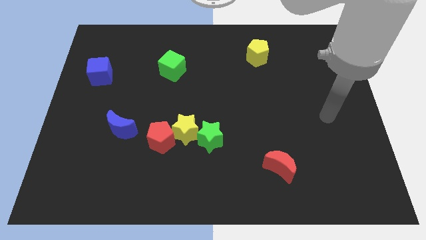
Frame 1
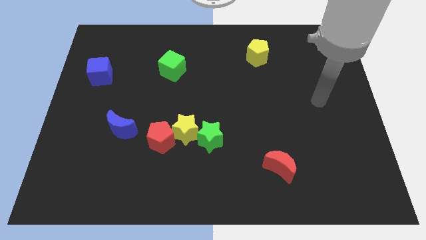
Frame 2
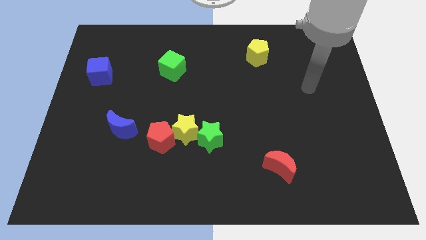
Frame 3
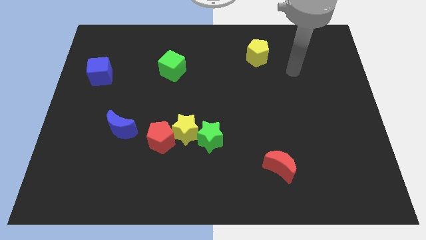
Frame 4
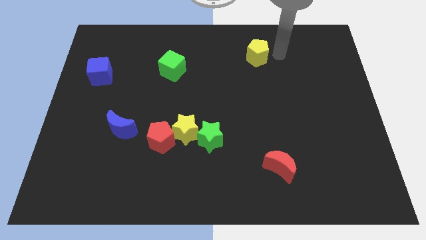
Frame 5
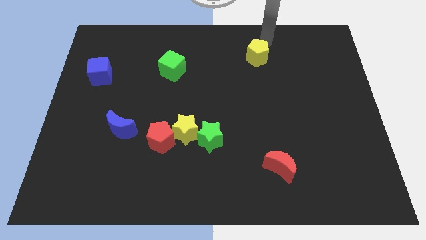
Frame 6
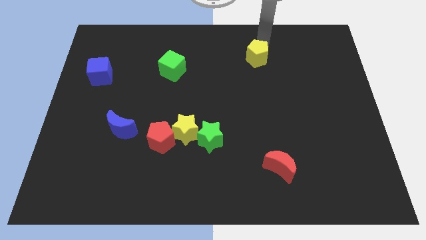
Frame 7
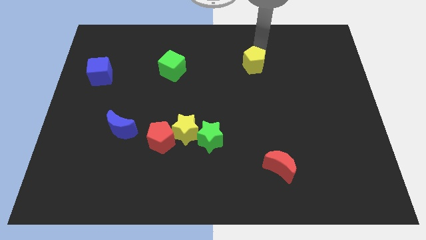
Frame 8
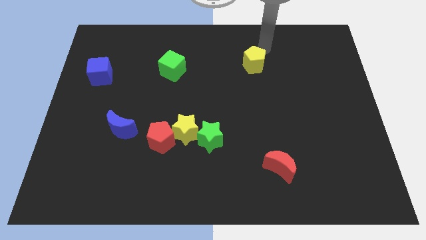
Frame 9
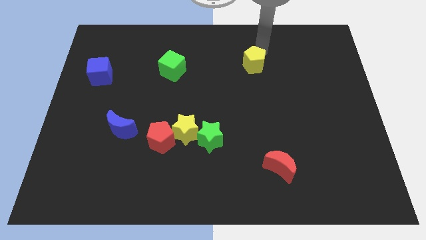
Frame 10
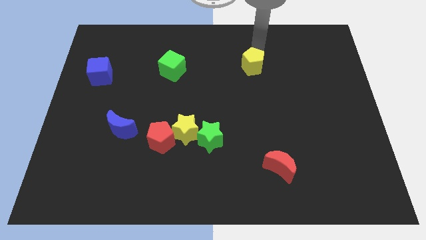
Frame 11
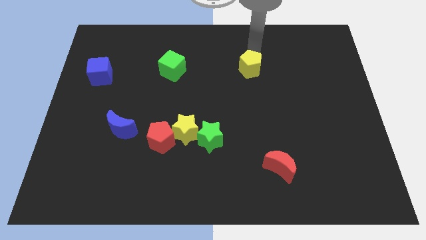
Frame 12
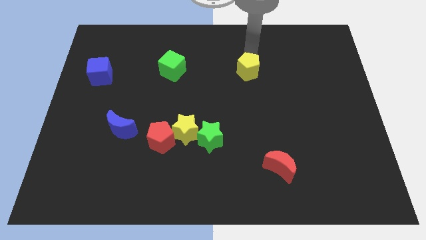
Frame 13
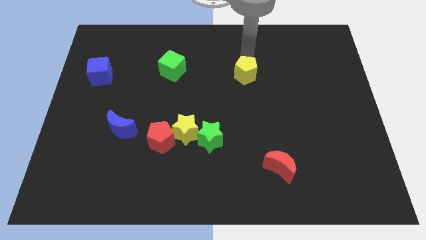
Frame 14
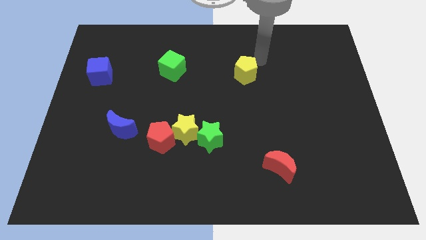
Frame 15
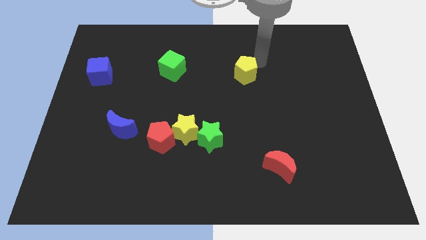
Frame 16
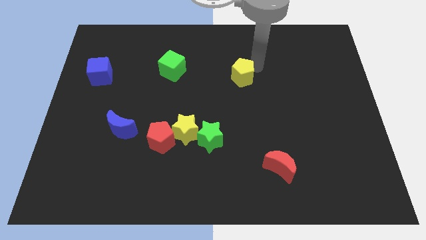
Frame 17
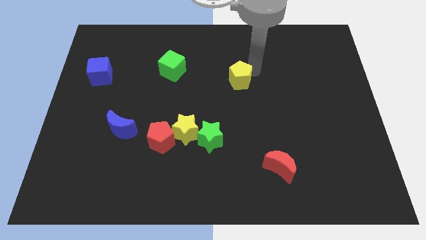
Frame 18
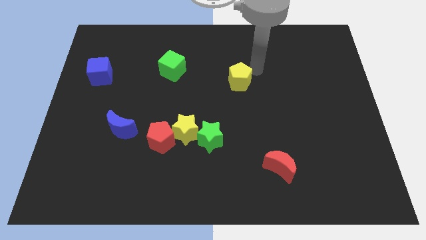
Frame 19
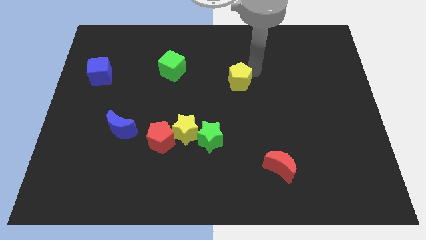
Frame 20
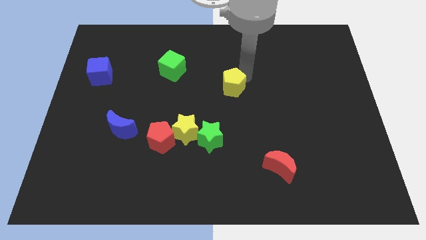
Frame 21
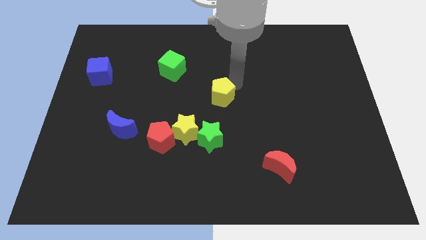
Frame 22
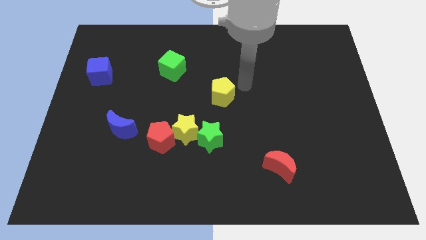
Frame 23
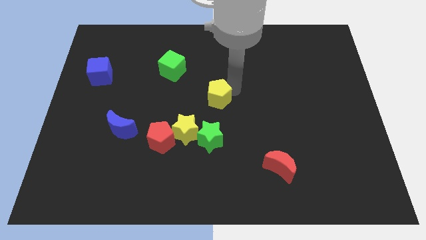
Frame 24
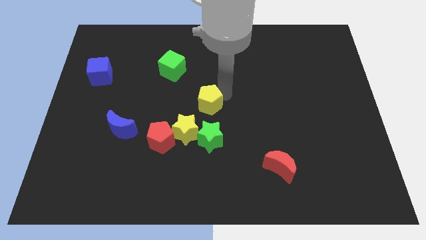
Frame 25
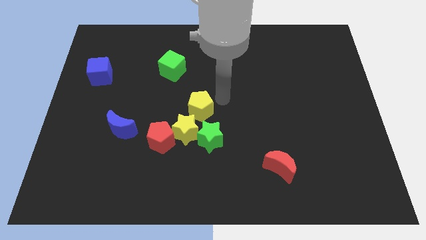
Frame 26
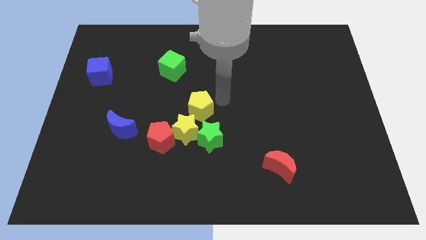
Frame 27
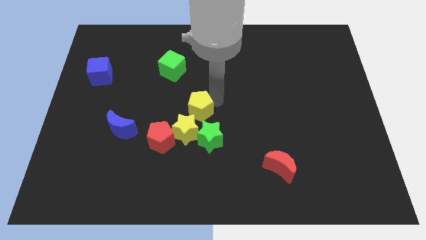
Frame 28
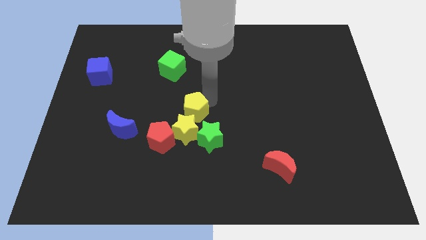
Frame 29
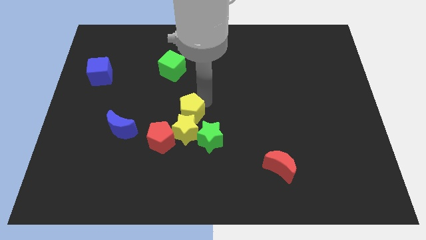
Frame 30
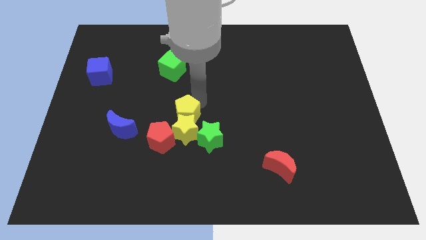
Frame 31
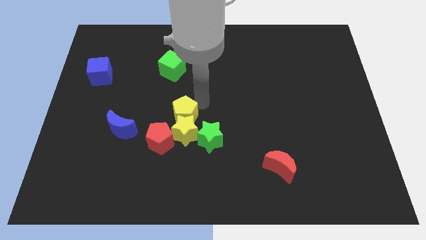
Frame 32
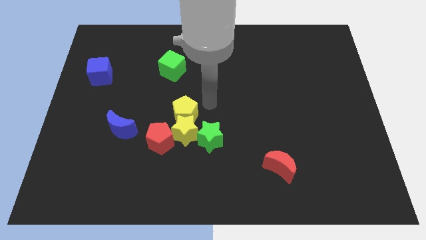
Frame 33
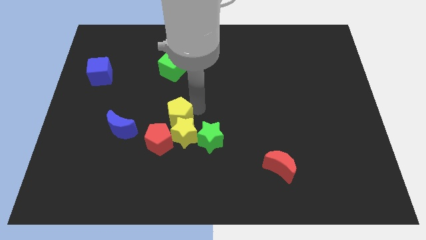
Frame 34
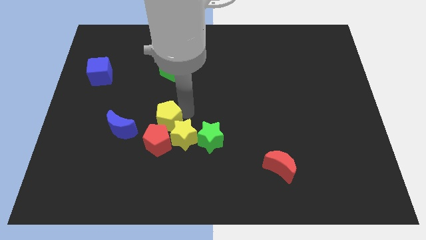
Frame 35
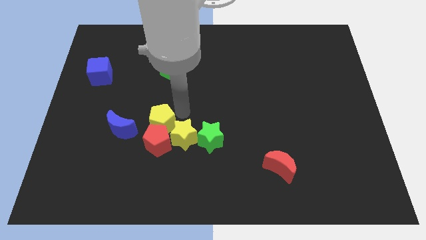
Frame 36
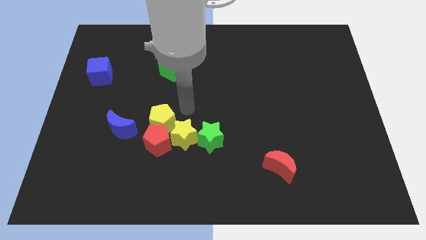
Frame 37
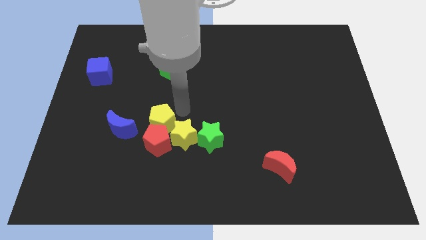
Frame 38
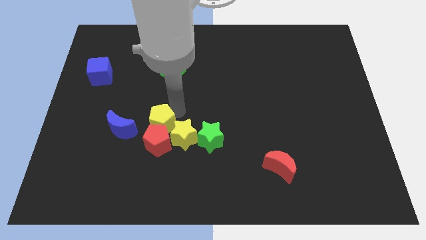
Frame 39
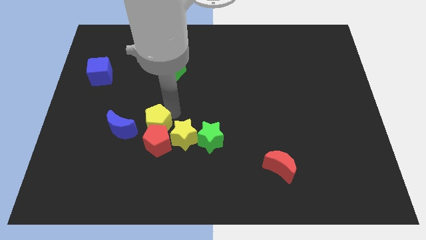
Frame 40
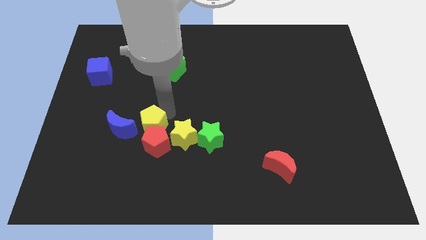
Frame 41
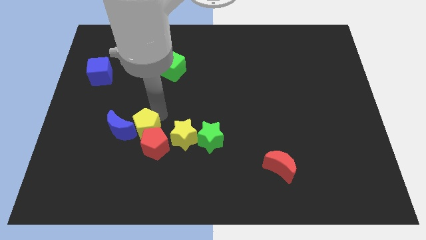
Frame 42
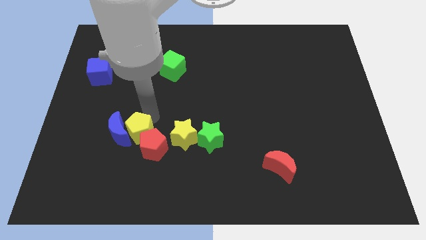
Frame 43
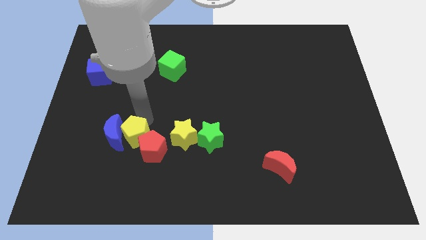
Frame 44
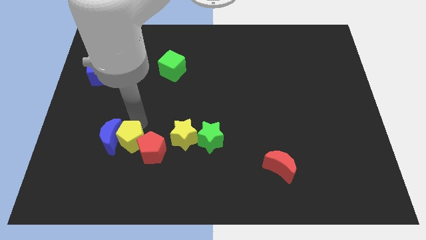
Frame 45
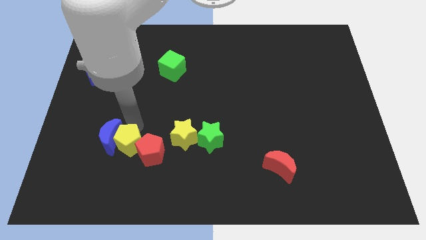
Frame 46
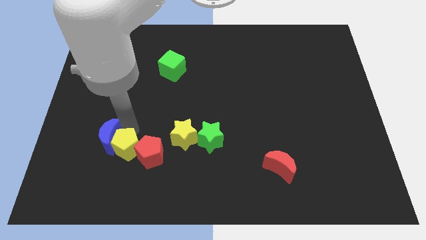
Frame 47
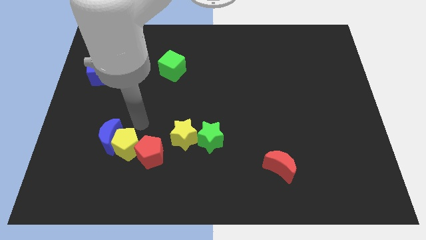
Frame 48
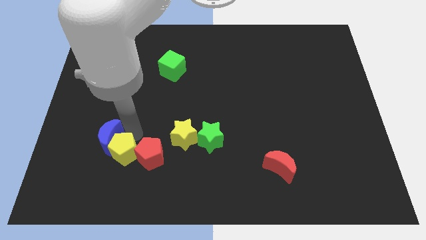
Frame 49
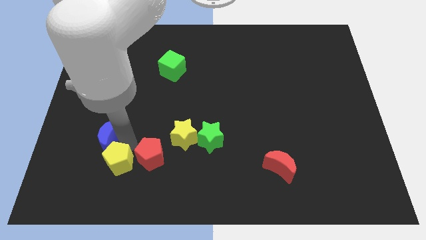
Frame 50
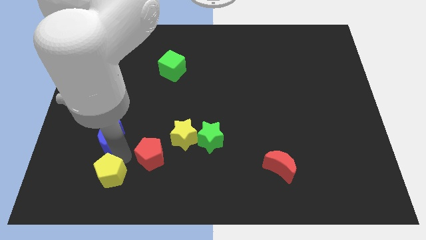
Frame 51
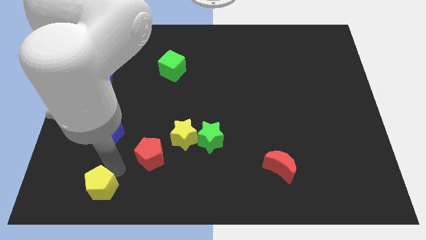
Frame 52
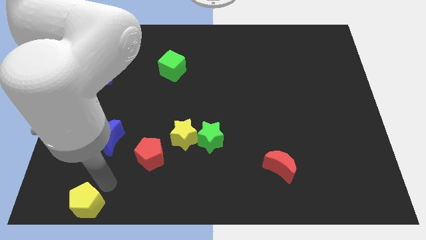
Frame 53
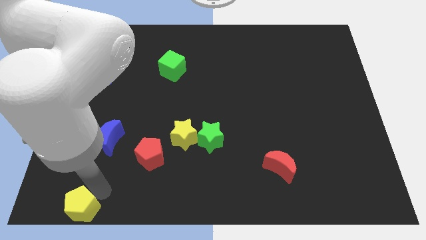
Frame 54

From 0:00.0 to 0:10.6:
slide the yellow pentagon to the bottom left corner

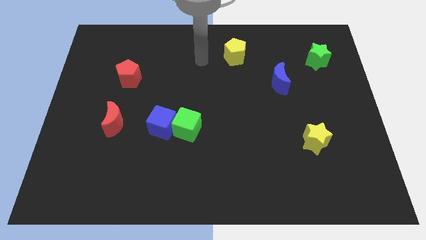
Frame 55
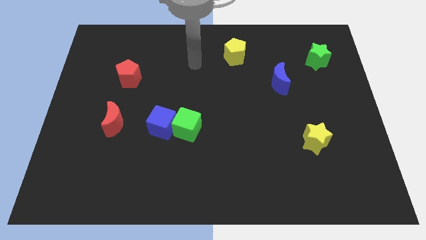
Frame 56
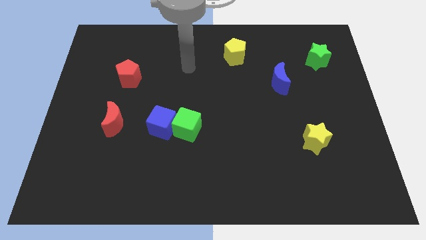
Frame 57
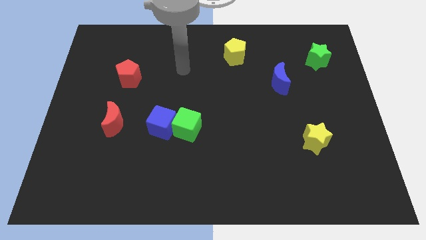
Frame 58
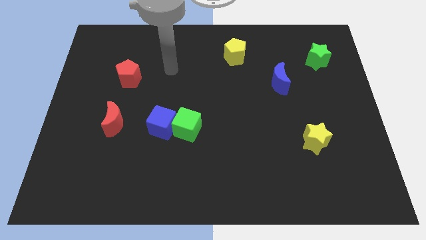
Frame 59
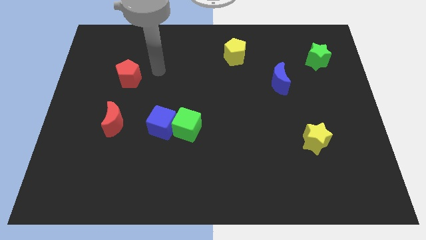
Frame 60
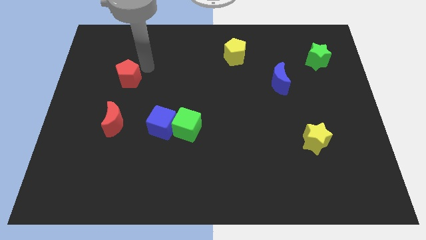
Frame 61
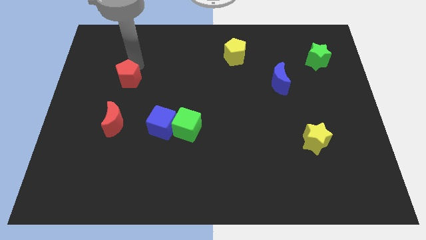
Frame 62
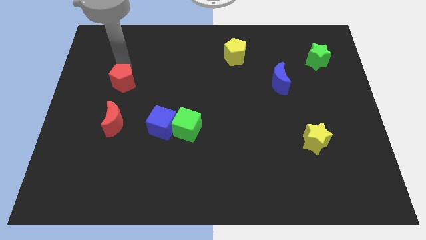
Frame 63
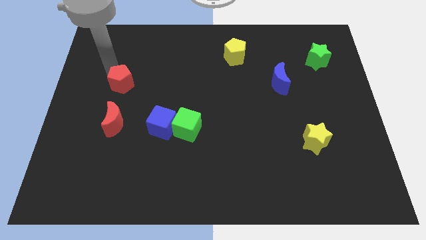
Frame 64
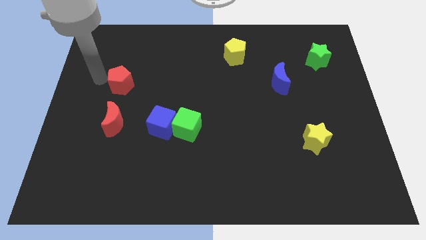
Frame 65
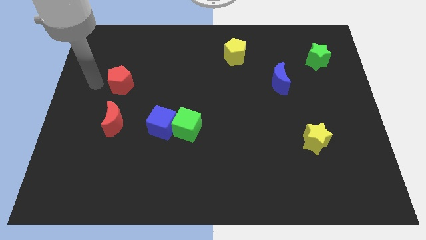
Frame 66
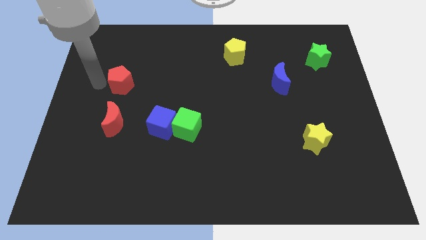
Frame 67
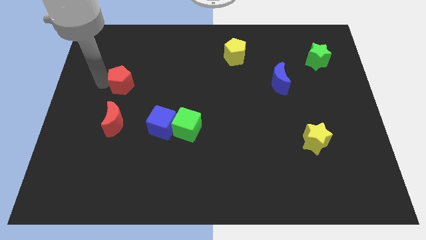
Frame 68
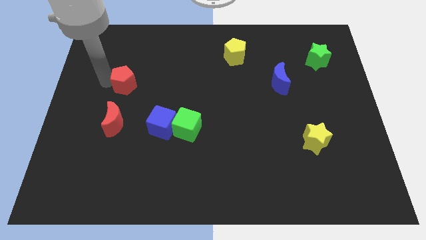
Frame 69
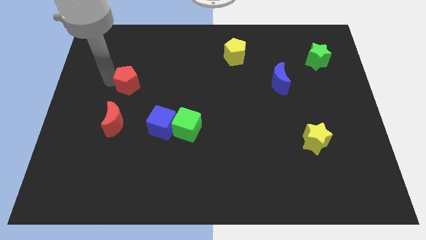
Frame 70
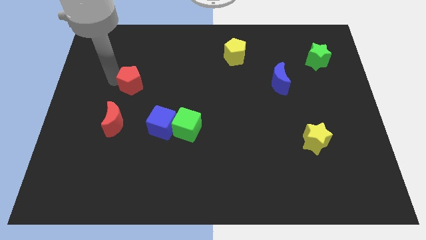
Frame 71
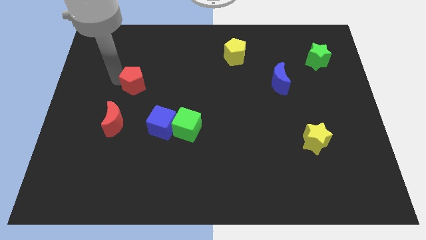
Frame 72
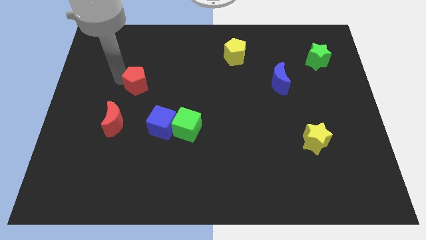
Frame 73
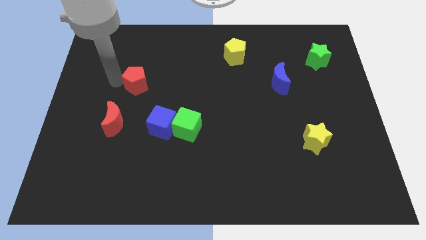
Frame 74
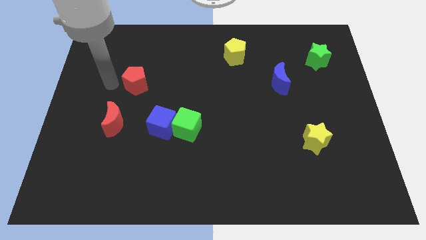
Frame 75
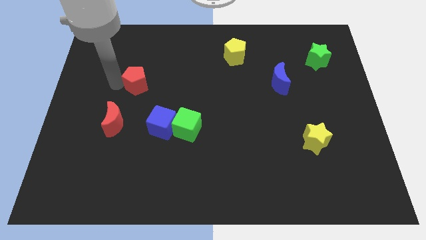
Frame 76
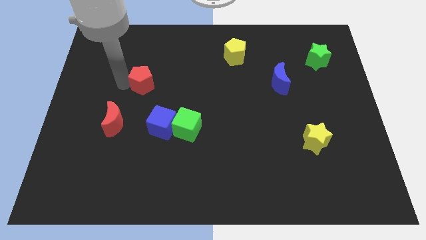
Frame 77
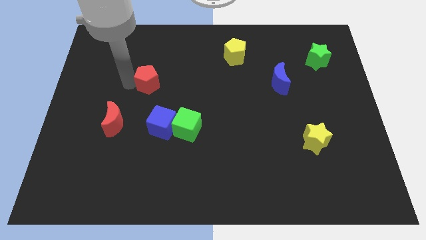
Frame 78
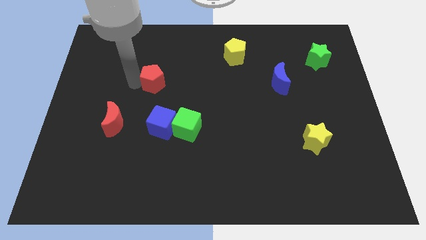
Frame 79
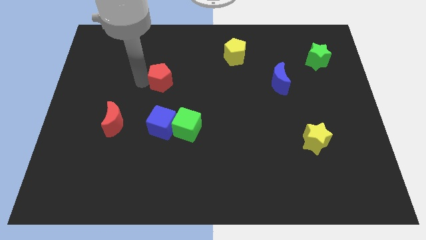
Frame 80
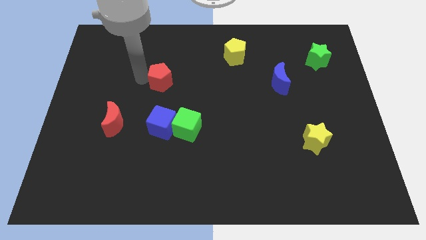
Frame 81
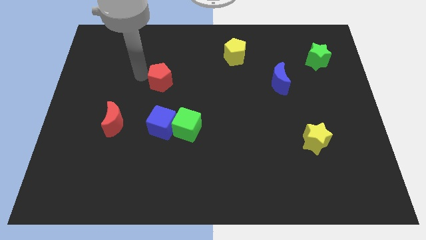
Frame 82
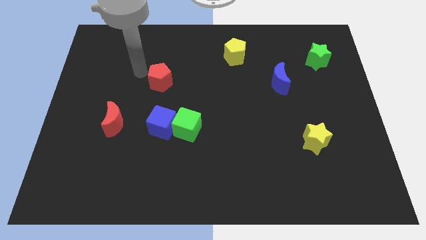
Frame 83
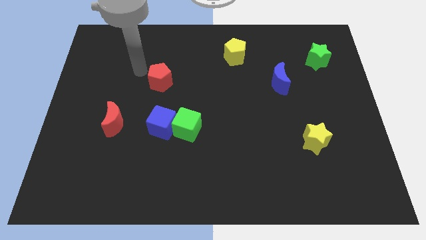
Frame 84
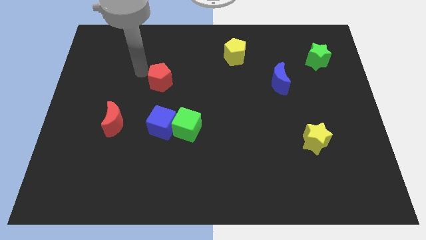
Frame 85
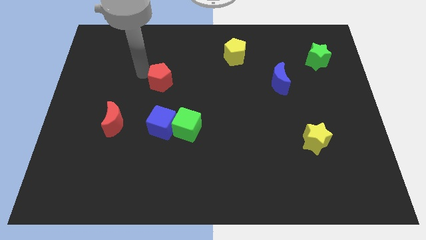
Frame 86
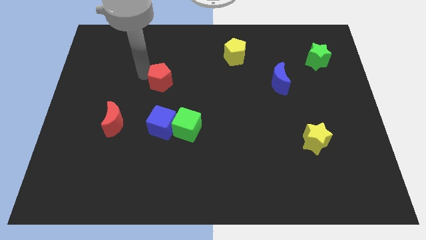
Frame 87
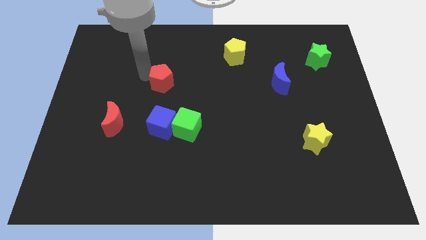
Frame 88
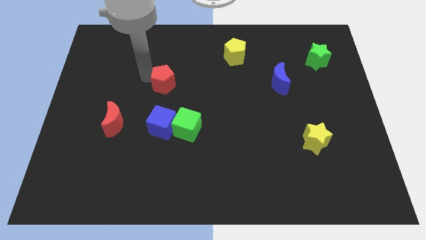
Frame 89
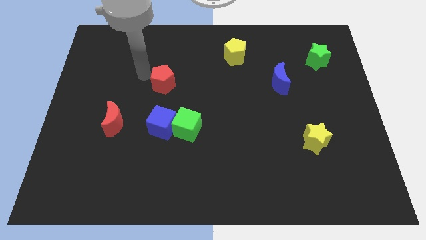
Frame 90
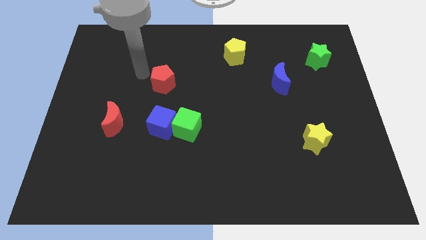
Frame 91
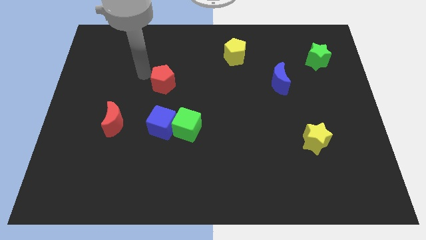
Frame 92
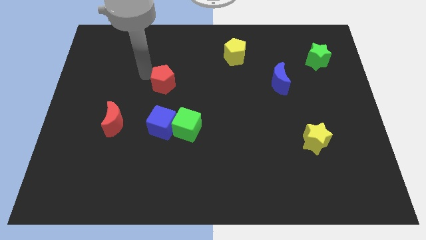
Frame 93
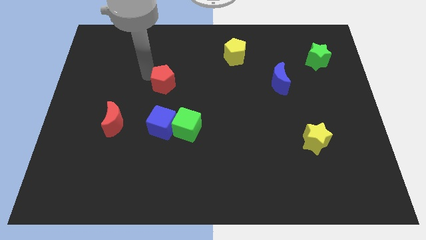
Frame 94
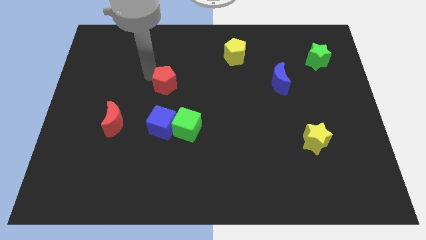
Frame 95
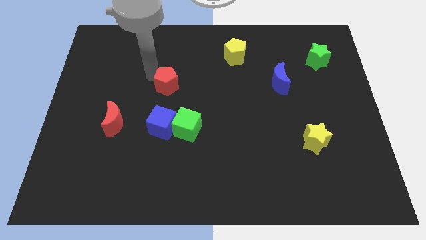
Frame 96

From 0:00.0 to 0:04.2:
push the red pentagon to the middle
